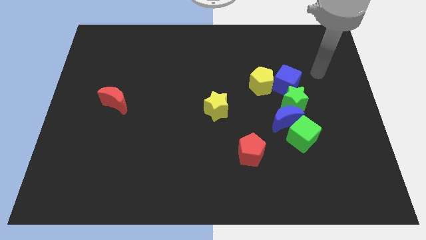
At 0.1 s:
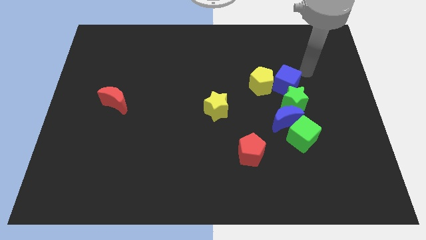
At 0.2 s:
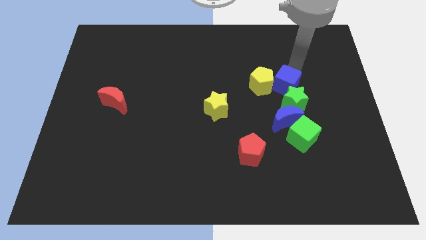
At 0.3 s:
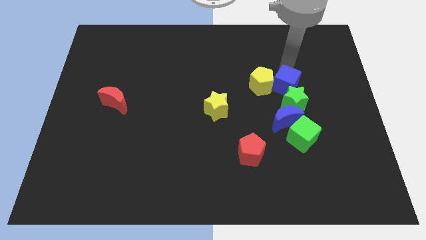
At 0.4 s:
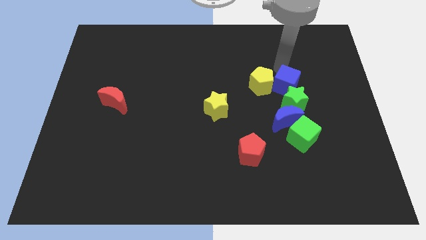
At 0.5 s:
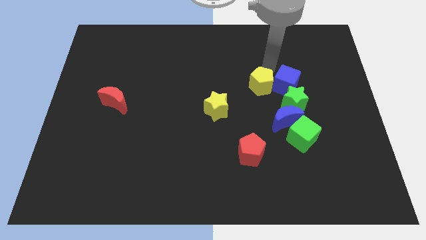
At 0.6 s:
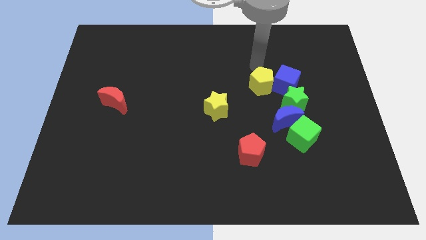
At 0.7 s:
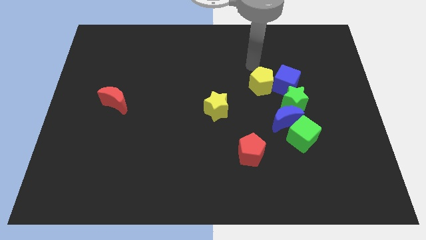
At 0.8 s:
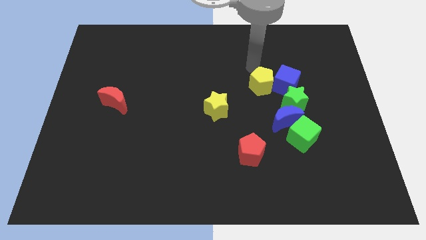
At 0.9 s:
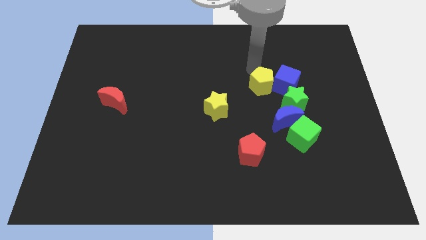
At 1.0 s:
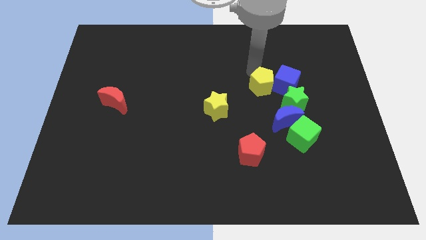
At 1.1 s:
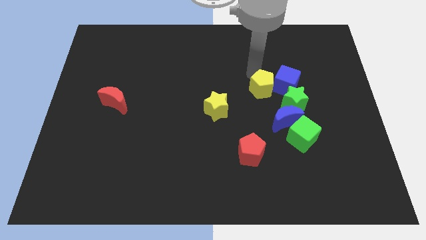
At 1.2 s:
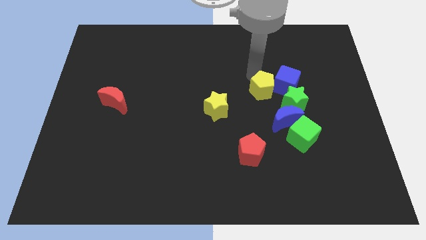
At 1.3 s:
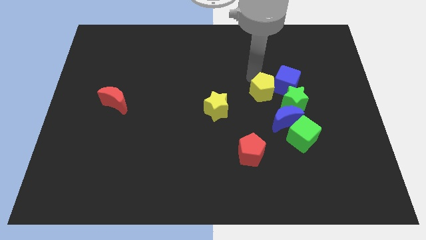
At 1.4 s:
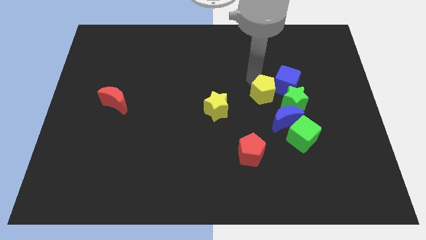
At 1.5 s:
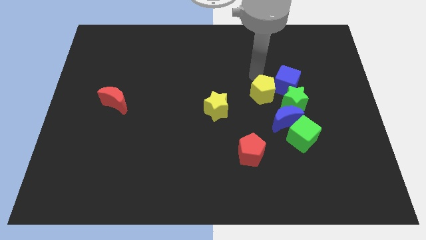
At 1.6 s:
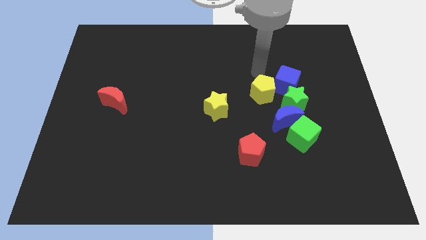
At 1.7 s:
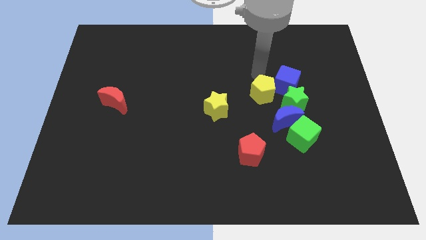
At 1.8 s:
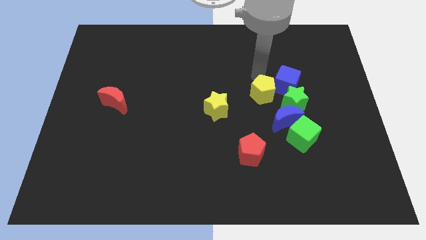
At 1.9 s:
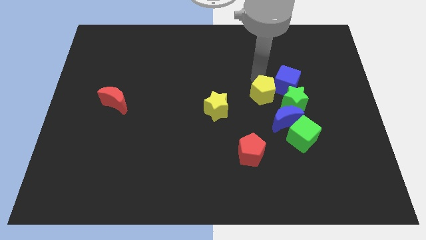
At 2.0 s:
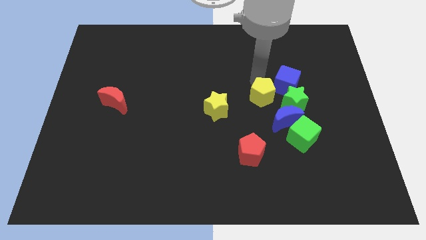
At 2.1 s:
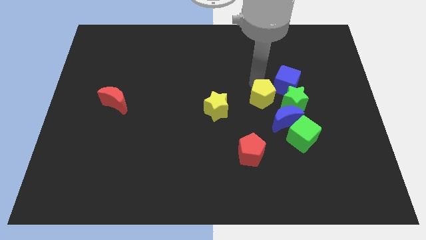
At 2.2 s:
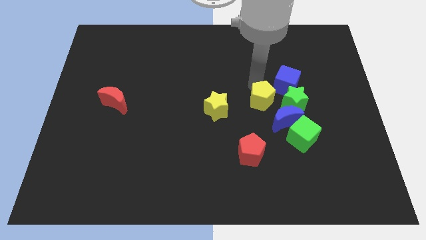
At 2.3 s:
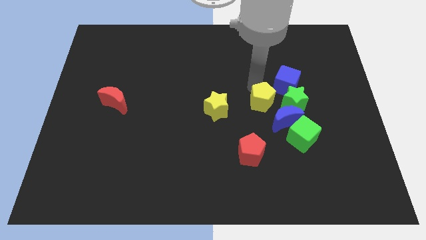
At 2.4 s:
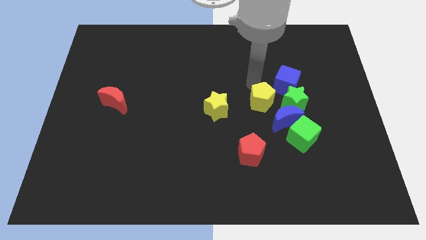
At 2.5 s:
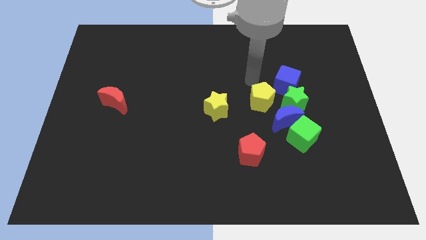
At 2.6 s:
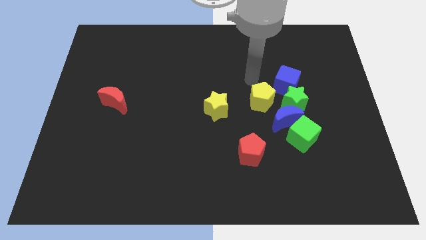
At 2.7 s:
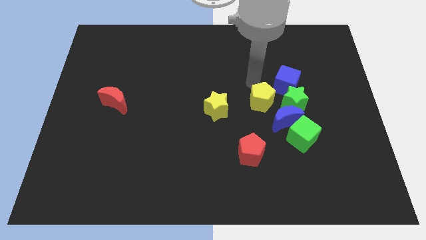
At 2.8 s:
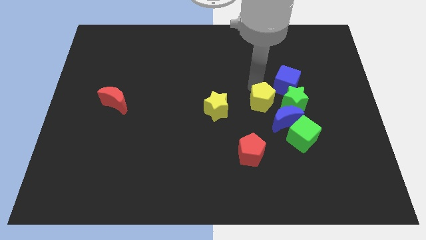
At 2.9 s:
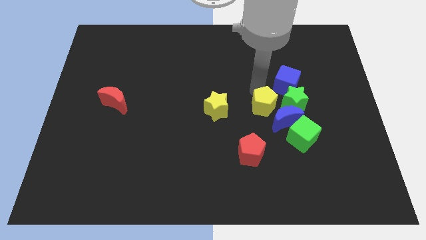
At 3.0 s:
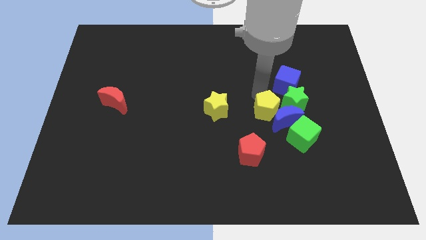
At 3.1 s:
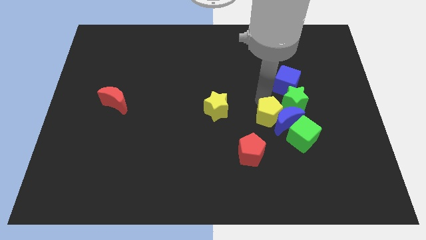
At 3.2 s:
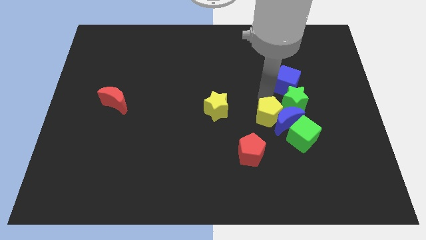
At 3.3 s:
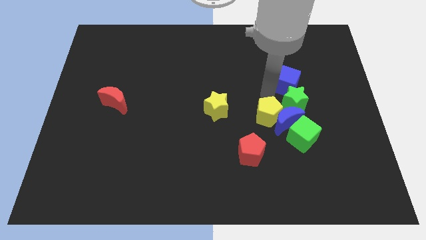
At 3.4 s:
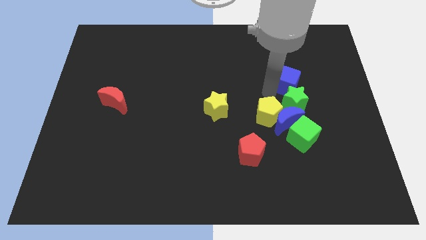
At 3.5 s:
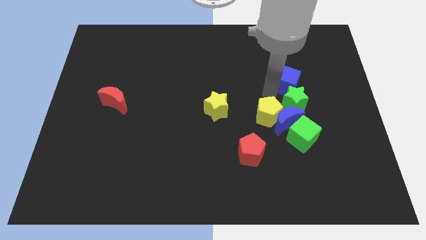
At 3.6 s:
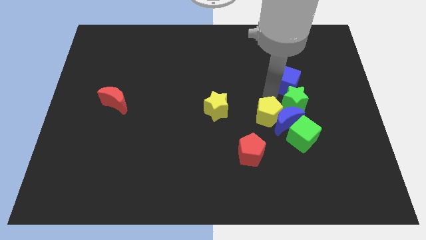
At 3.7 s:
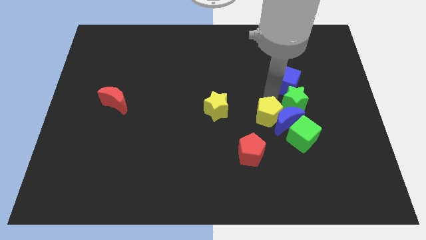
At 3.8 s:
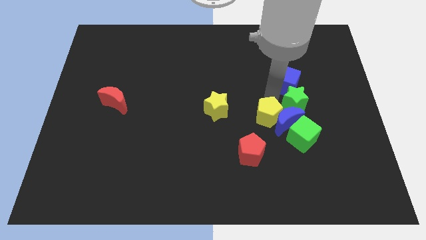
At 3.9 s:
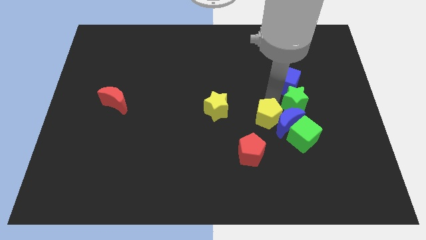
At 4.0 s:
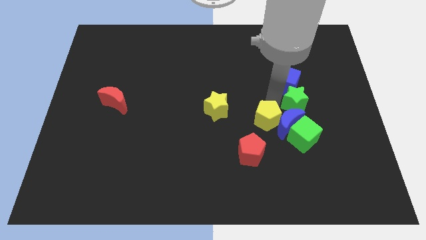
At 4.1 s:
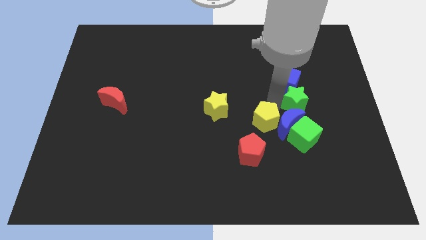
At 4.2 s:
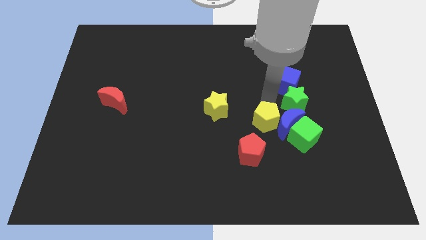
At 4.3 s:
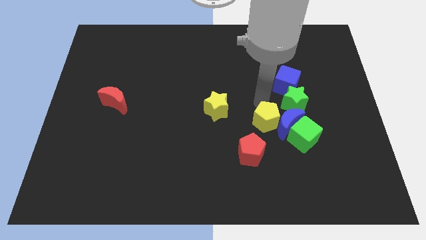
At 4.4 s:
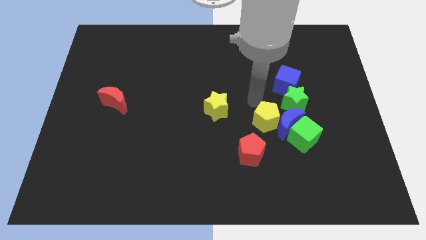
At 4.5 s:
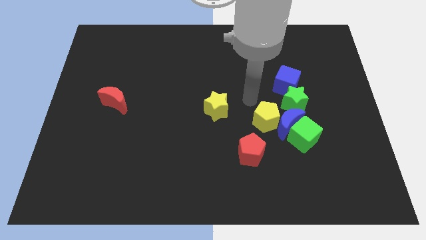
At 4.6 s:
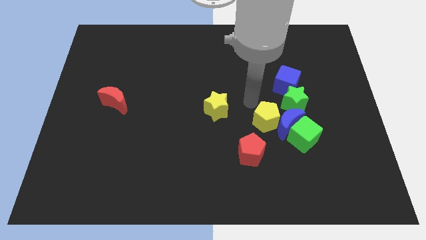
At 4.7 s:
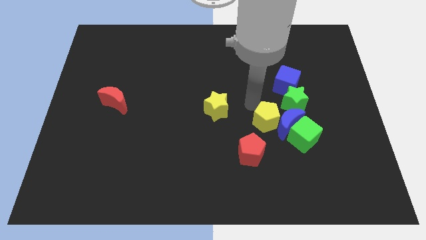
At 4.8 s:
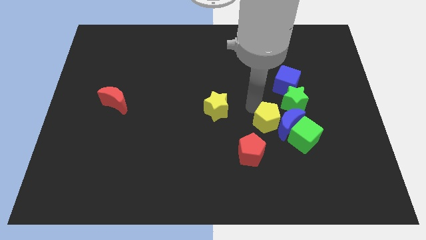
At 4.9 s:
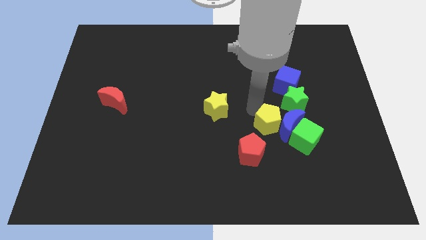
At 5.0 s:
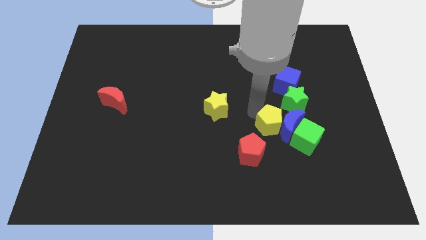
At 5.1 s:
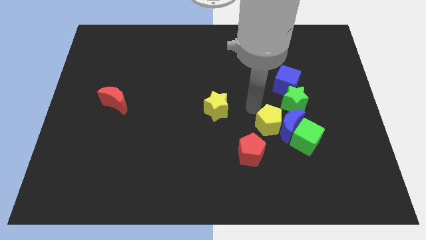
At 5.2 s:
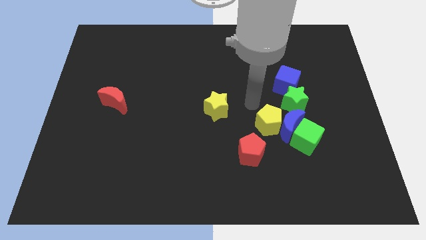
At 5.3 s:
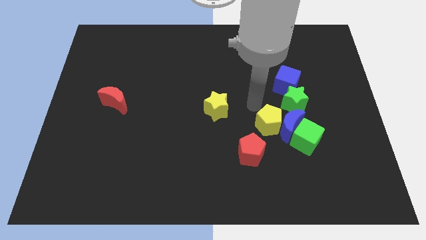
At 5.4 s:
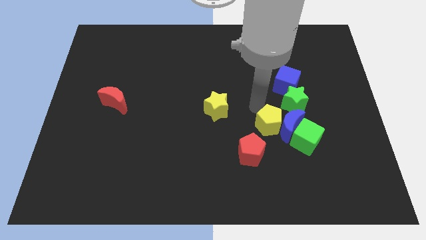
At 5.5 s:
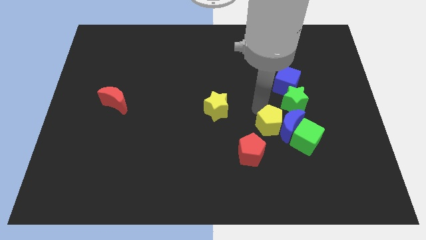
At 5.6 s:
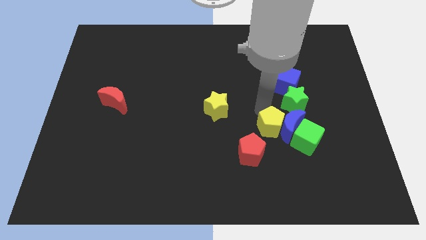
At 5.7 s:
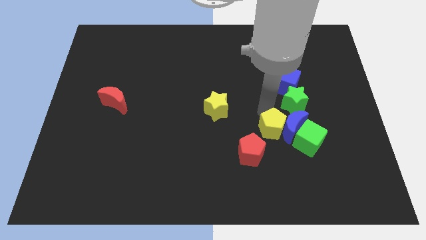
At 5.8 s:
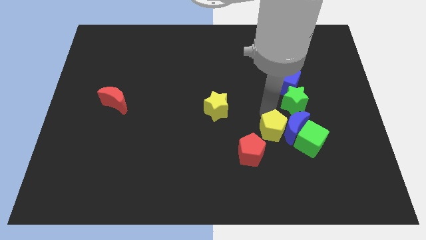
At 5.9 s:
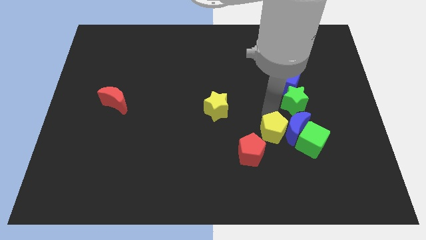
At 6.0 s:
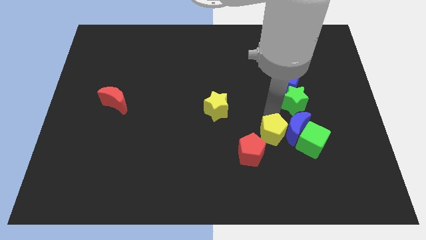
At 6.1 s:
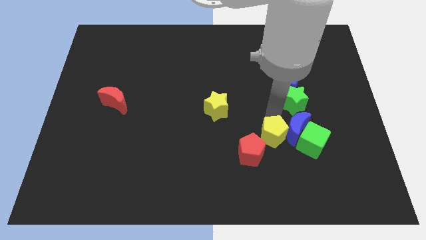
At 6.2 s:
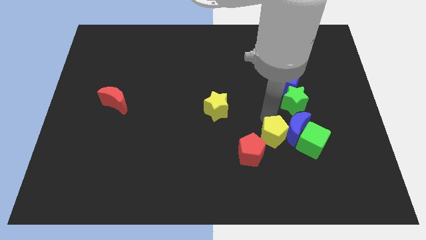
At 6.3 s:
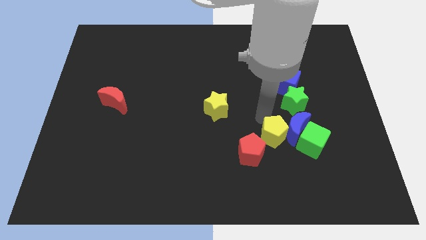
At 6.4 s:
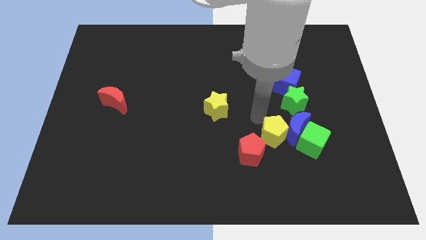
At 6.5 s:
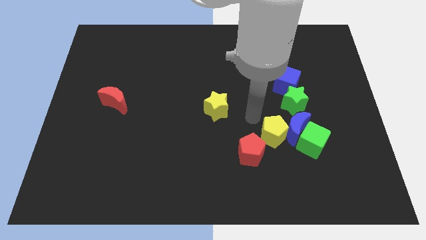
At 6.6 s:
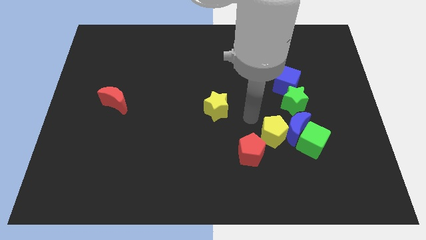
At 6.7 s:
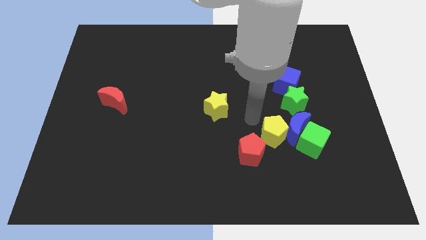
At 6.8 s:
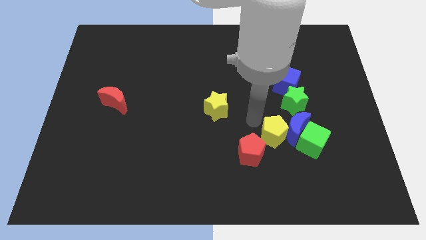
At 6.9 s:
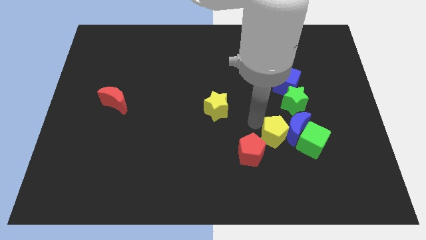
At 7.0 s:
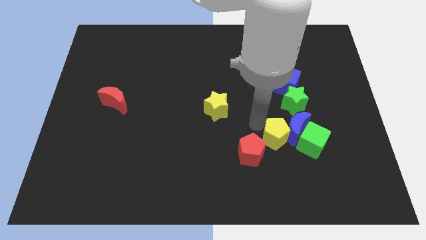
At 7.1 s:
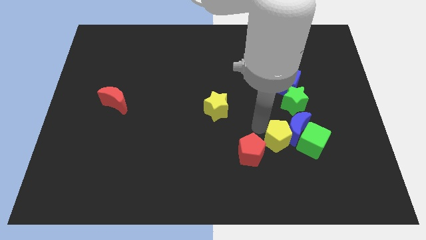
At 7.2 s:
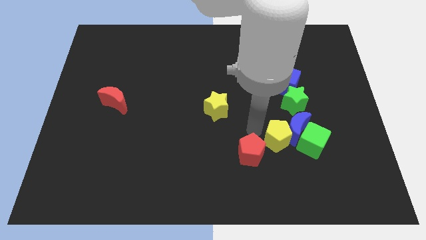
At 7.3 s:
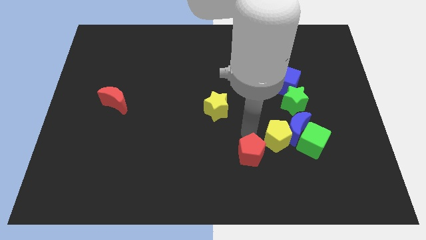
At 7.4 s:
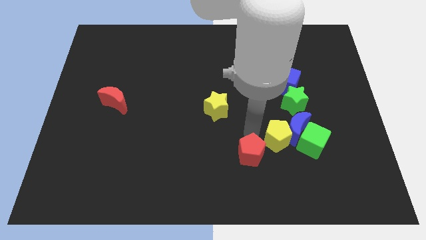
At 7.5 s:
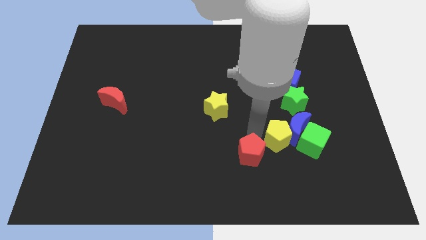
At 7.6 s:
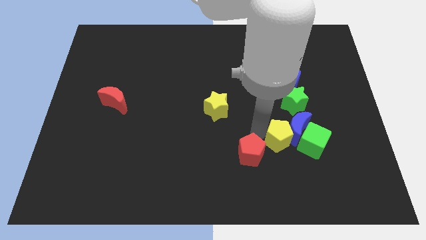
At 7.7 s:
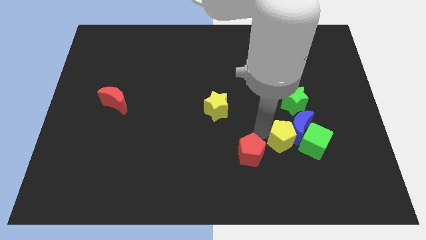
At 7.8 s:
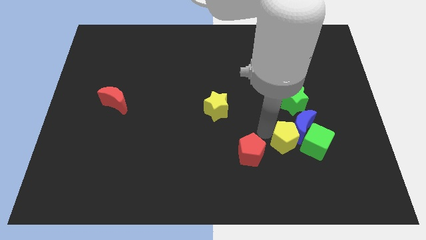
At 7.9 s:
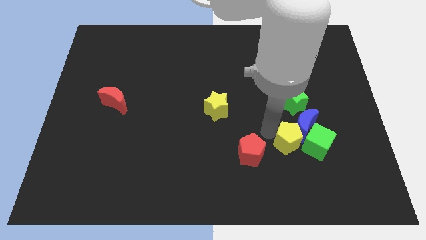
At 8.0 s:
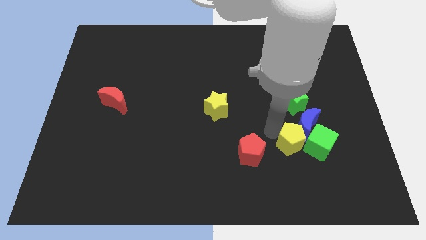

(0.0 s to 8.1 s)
put the yellow pentagon close to the green cube

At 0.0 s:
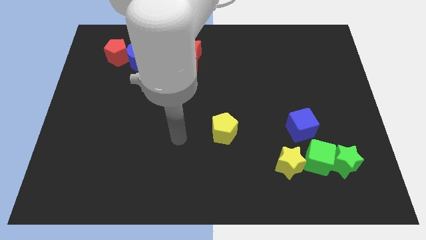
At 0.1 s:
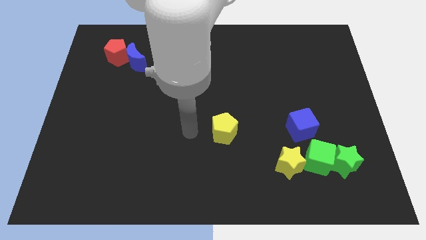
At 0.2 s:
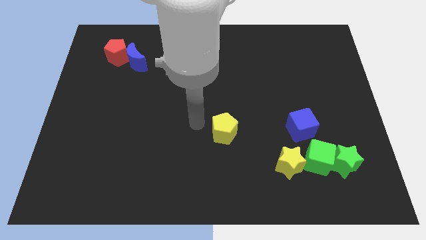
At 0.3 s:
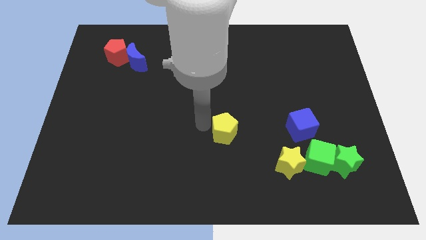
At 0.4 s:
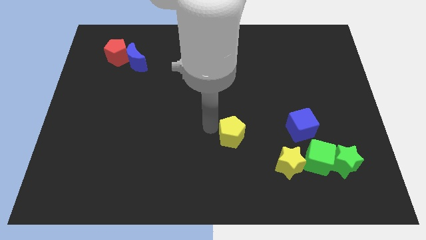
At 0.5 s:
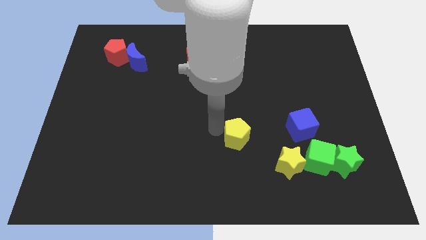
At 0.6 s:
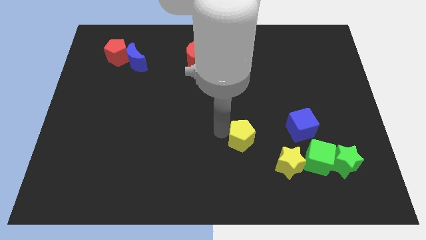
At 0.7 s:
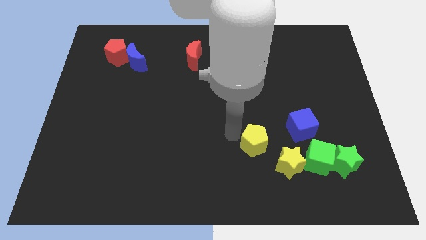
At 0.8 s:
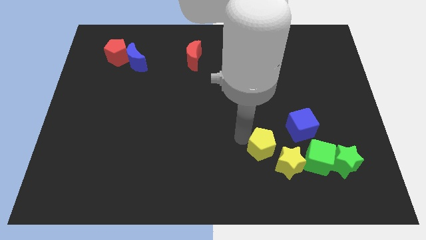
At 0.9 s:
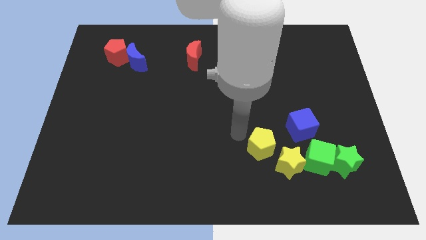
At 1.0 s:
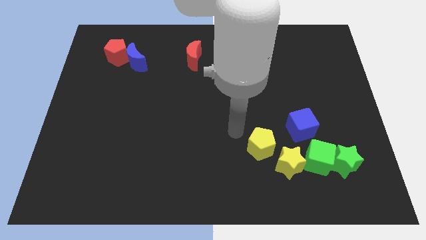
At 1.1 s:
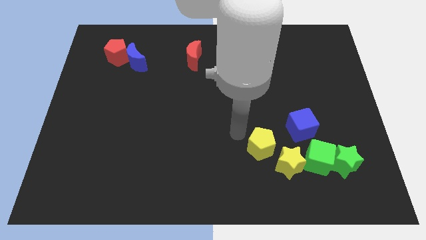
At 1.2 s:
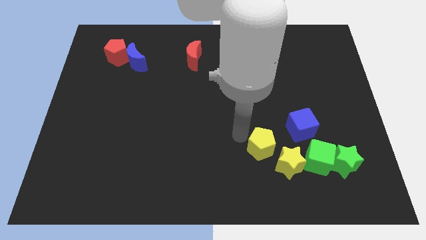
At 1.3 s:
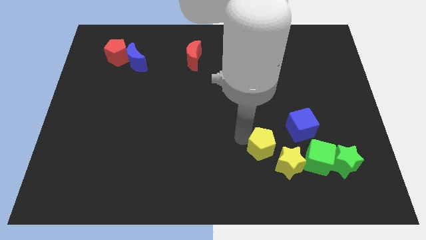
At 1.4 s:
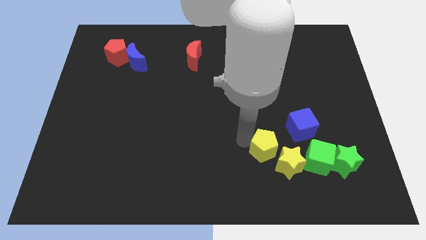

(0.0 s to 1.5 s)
slide the yellow pentagon close to the yellow star
